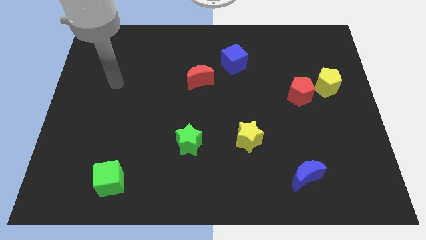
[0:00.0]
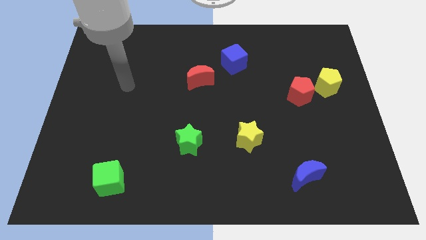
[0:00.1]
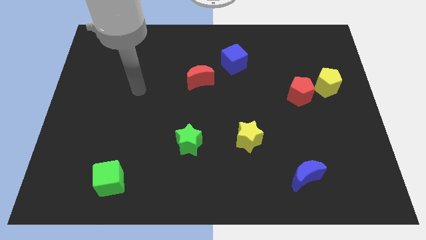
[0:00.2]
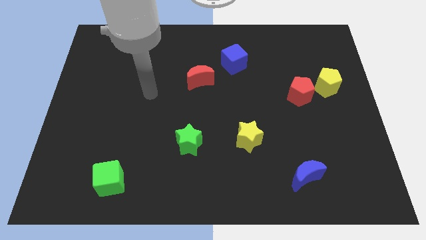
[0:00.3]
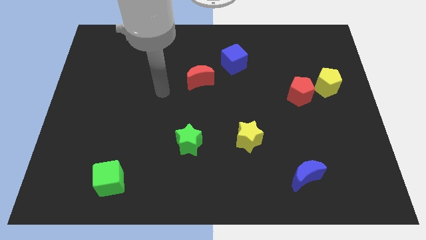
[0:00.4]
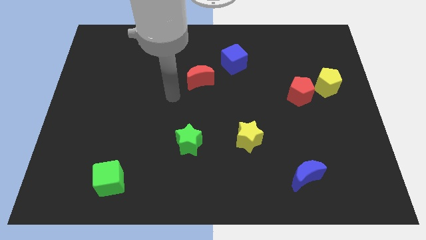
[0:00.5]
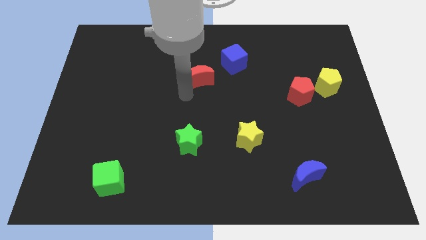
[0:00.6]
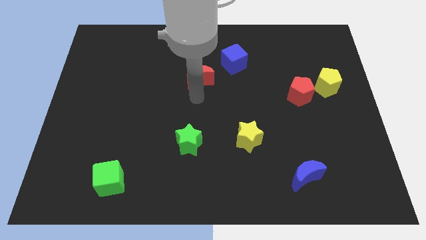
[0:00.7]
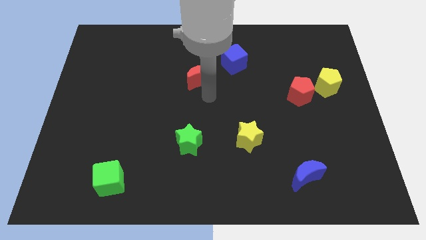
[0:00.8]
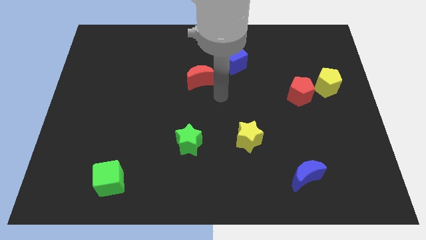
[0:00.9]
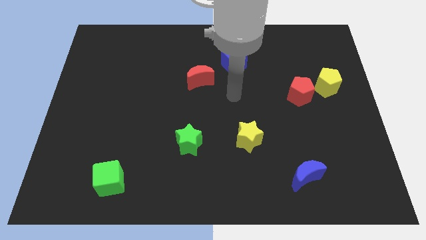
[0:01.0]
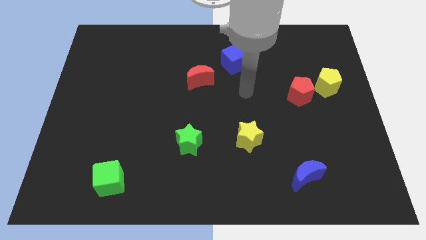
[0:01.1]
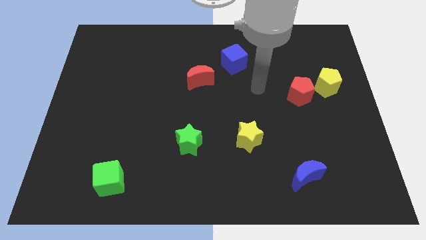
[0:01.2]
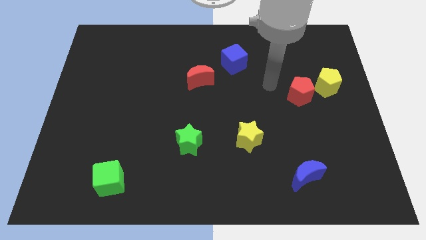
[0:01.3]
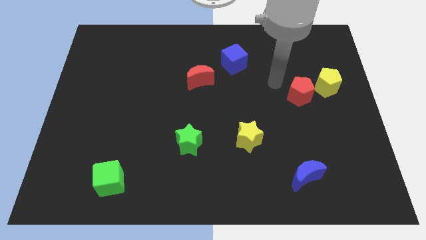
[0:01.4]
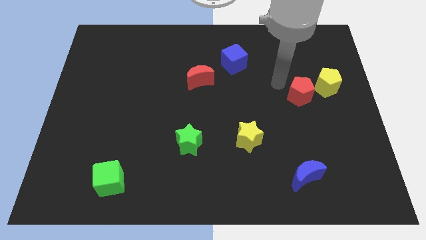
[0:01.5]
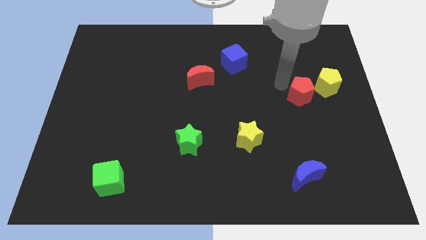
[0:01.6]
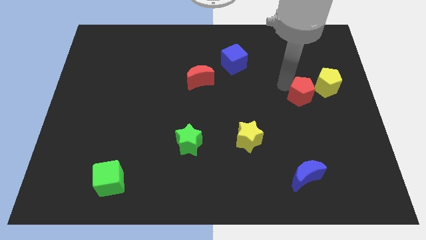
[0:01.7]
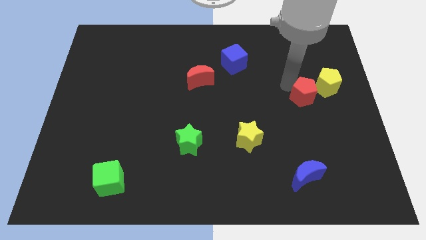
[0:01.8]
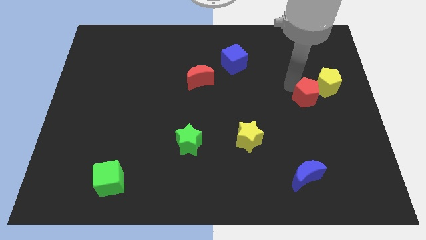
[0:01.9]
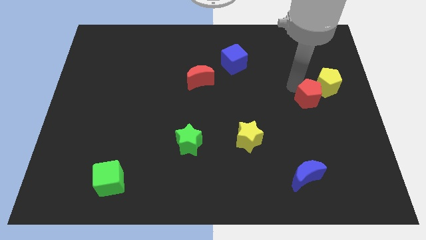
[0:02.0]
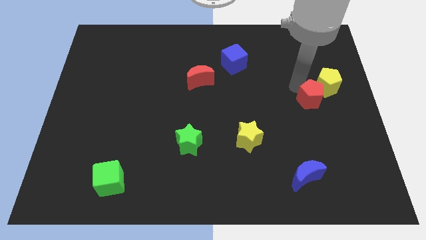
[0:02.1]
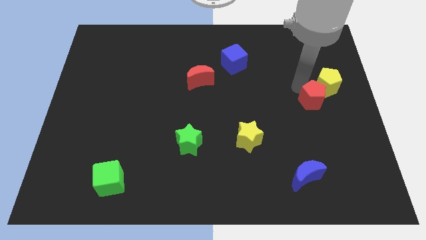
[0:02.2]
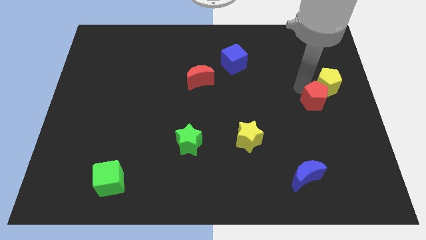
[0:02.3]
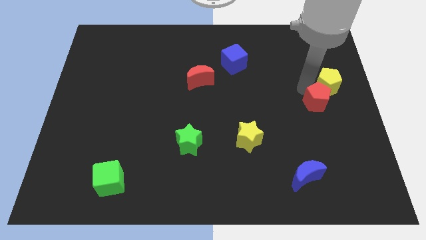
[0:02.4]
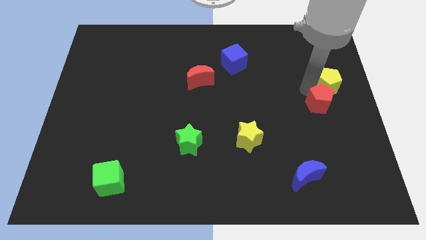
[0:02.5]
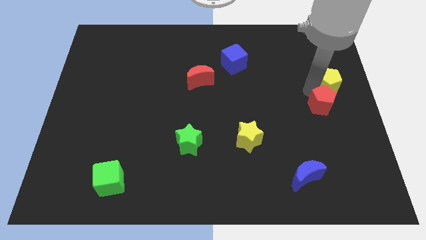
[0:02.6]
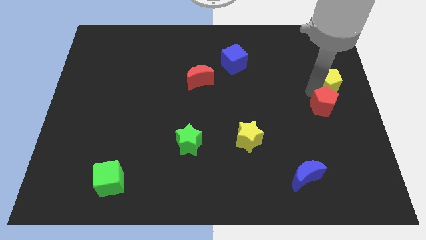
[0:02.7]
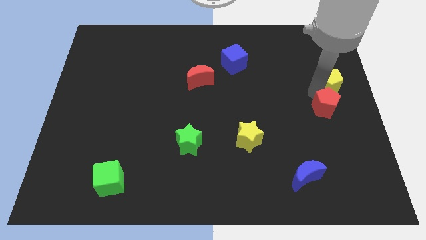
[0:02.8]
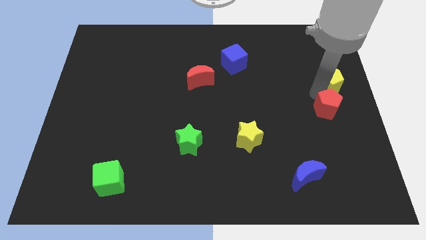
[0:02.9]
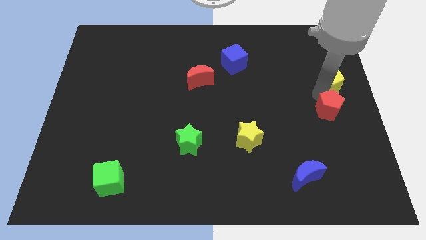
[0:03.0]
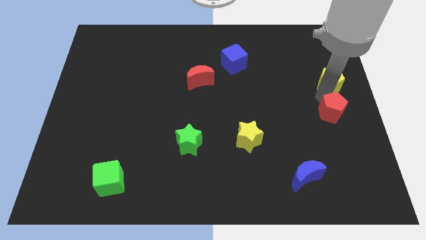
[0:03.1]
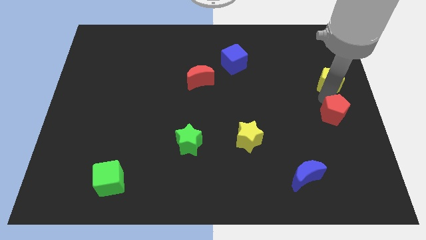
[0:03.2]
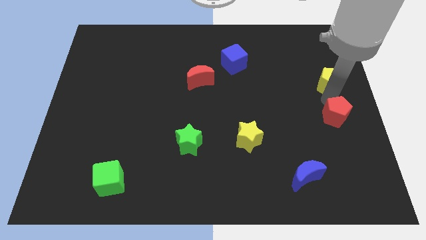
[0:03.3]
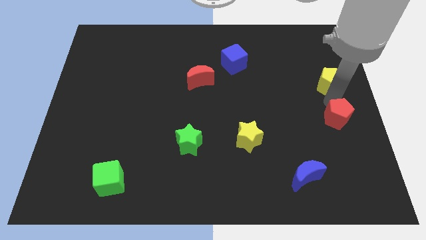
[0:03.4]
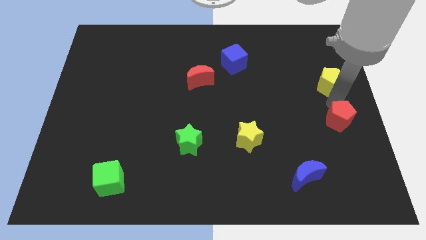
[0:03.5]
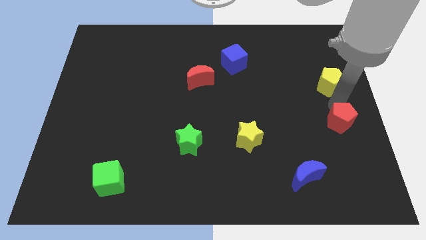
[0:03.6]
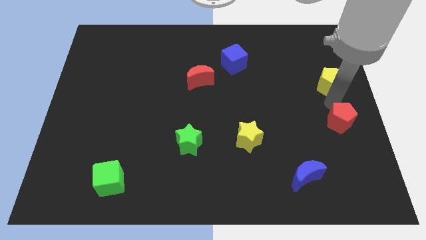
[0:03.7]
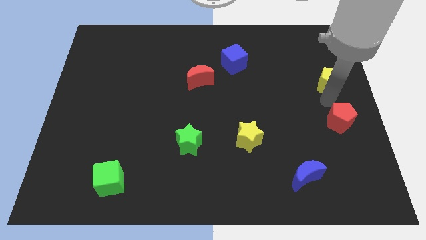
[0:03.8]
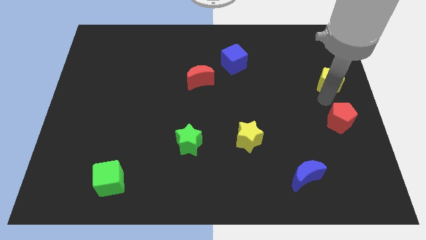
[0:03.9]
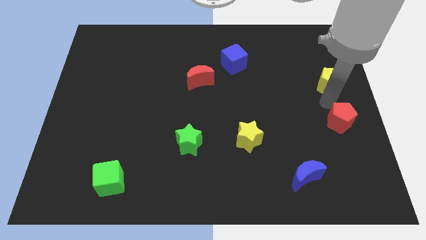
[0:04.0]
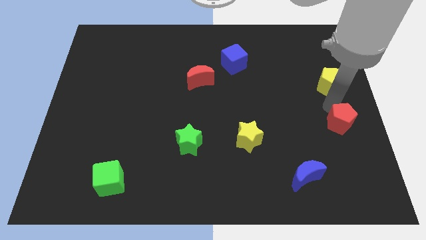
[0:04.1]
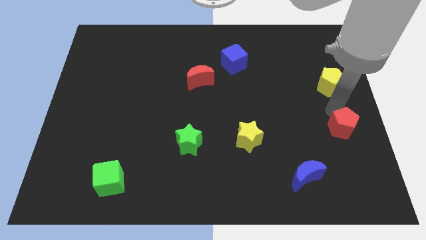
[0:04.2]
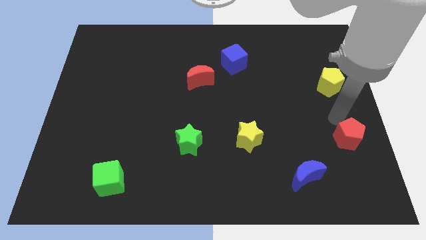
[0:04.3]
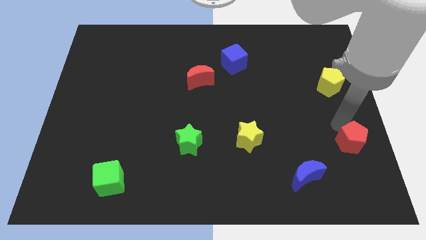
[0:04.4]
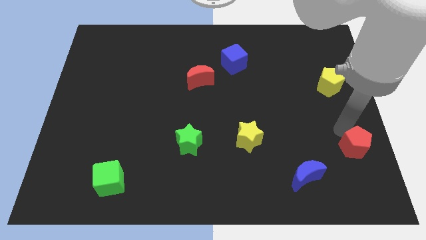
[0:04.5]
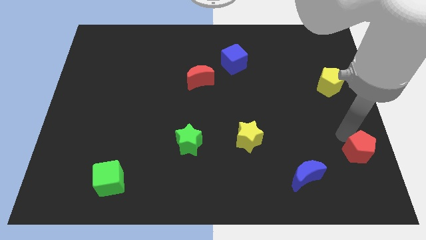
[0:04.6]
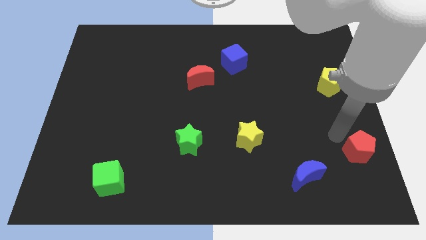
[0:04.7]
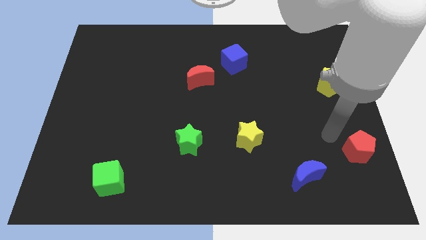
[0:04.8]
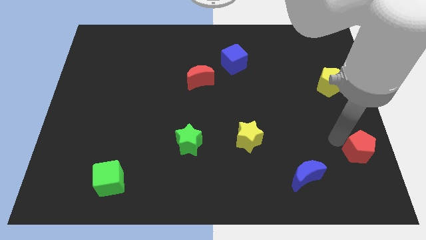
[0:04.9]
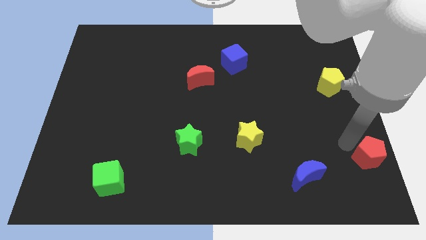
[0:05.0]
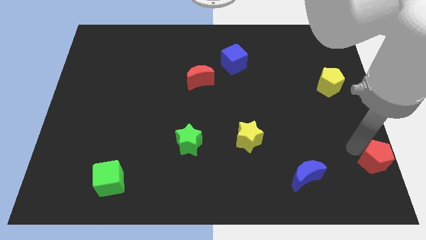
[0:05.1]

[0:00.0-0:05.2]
move the red pentagon to the bottom right of the board

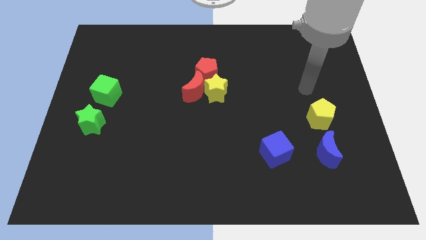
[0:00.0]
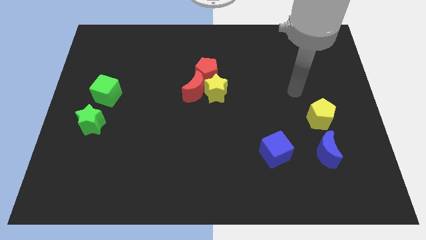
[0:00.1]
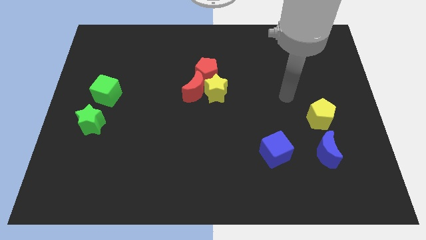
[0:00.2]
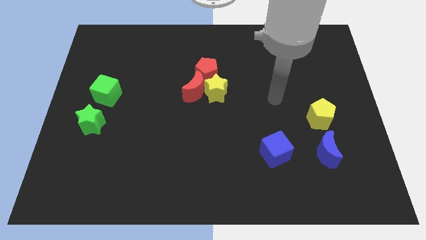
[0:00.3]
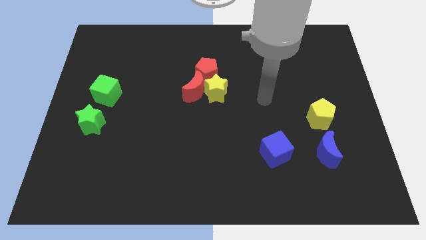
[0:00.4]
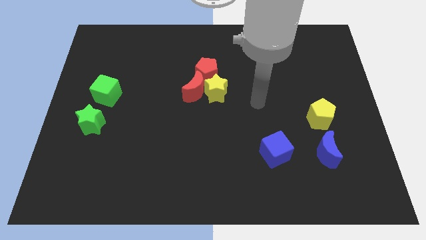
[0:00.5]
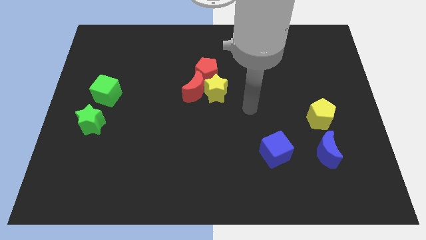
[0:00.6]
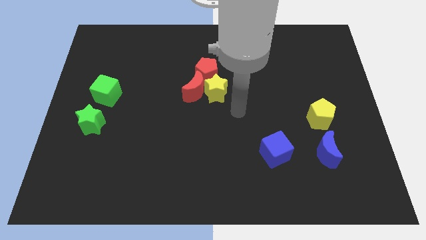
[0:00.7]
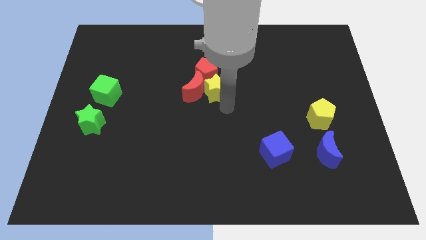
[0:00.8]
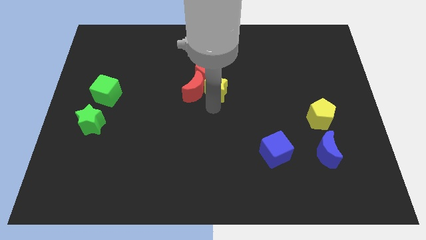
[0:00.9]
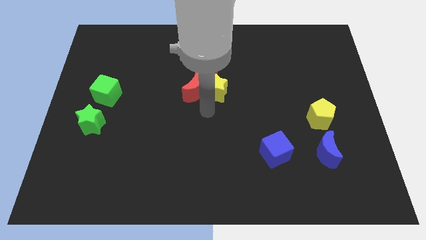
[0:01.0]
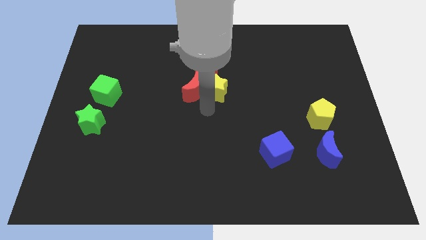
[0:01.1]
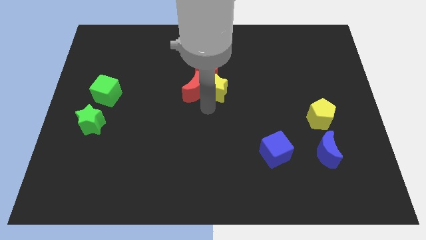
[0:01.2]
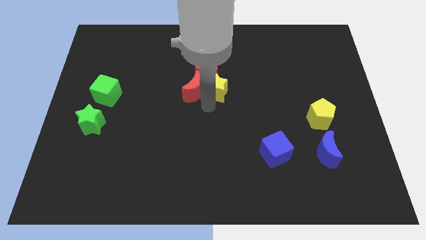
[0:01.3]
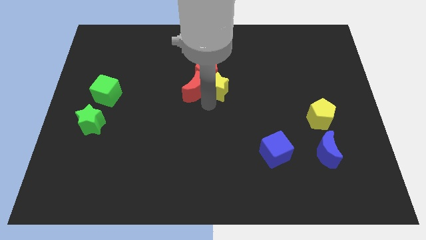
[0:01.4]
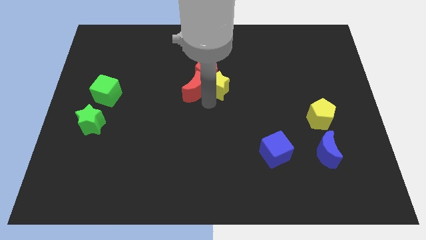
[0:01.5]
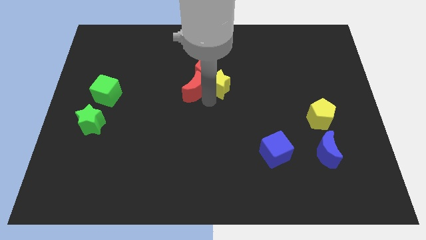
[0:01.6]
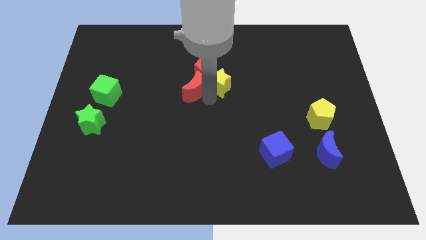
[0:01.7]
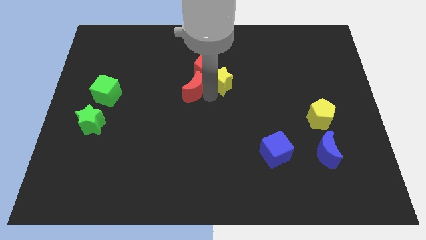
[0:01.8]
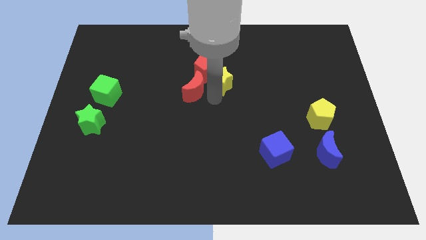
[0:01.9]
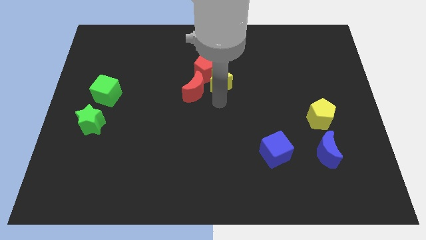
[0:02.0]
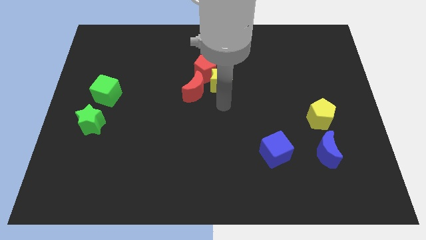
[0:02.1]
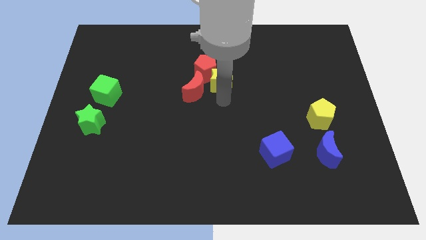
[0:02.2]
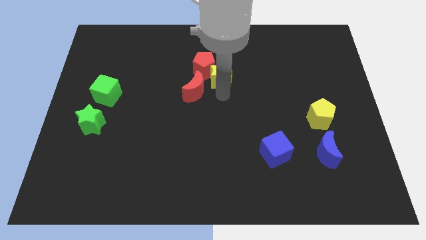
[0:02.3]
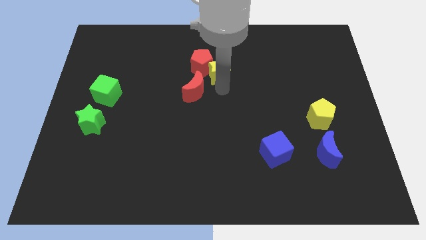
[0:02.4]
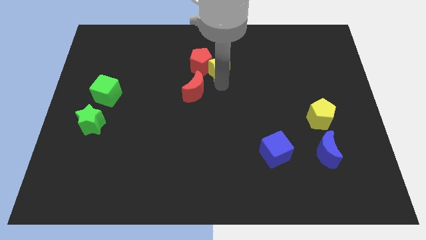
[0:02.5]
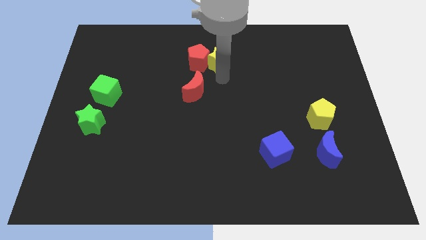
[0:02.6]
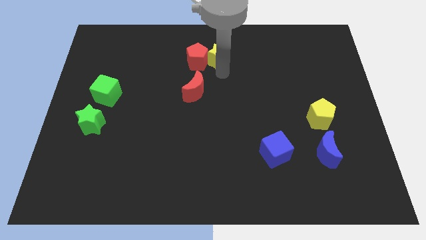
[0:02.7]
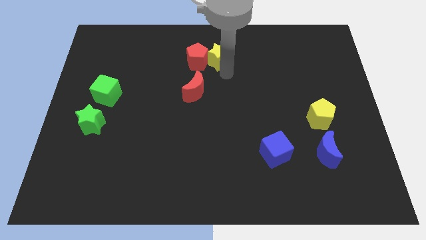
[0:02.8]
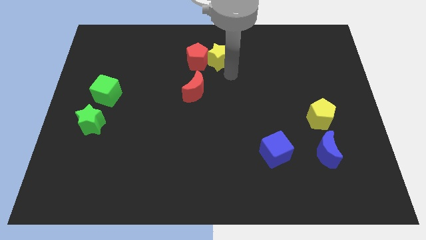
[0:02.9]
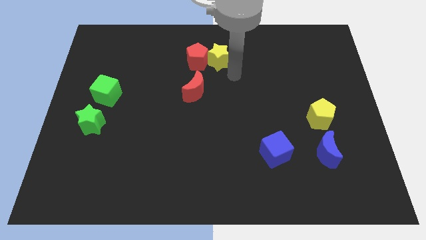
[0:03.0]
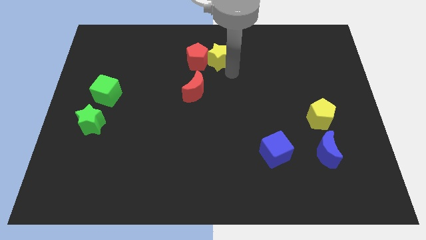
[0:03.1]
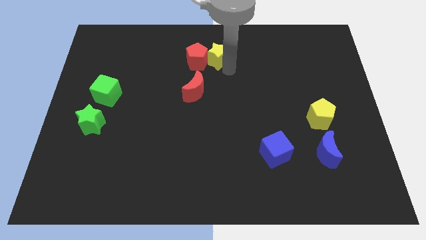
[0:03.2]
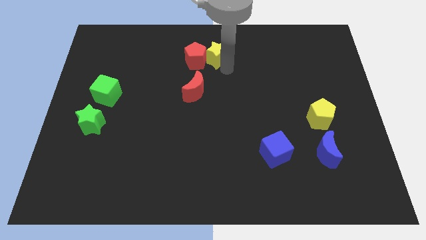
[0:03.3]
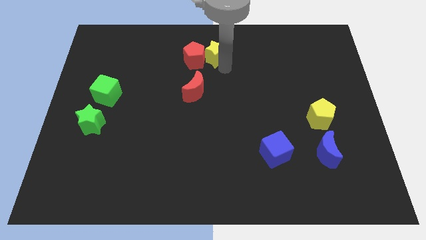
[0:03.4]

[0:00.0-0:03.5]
move the yellow star to the towards your base
